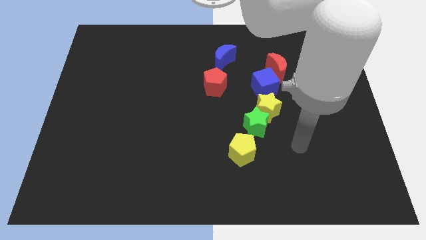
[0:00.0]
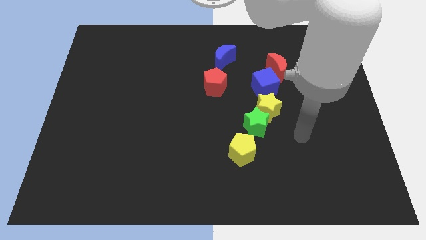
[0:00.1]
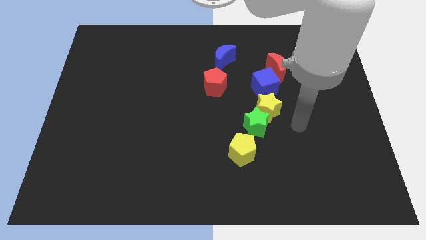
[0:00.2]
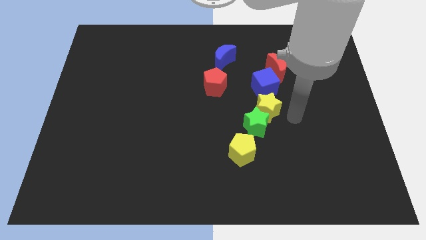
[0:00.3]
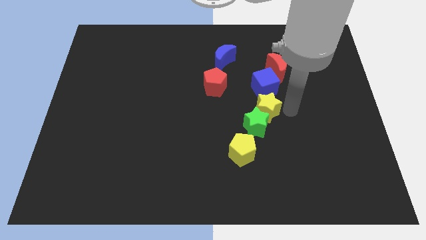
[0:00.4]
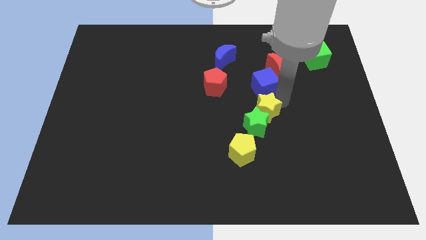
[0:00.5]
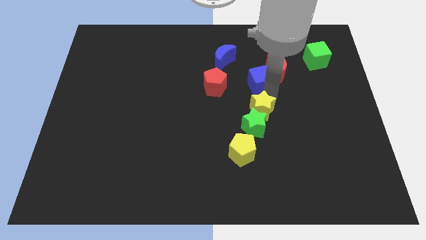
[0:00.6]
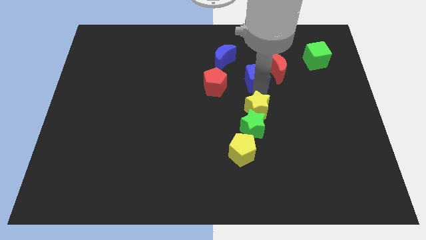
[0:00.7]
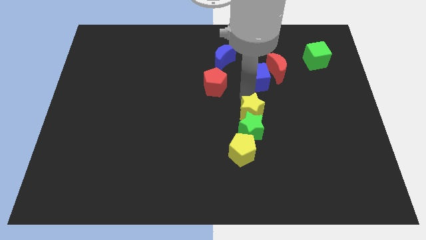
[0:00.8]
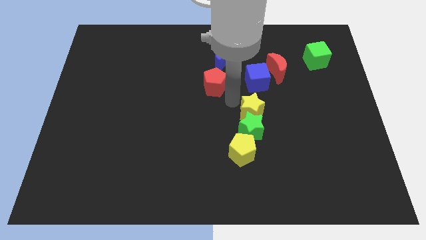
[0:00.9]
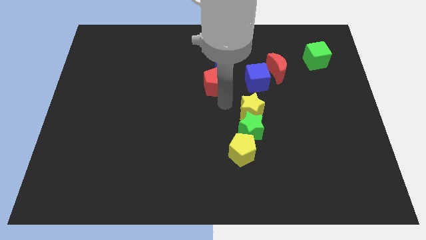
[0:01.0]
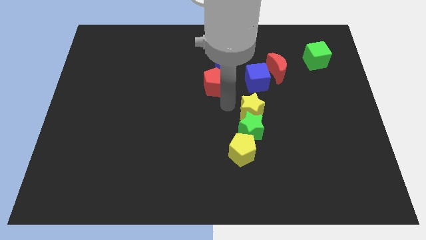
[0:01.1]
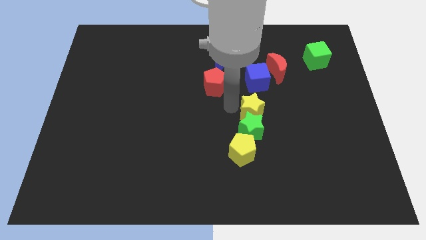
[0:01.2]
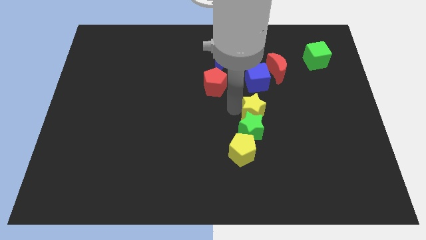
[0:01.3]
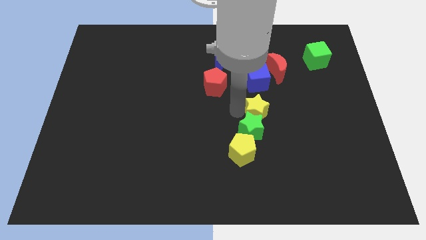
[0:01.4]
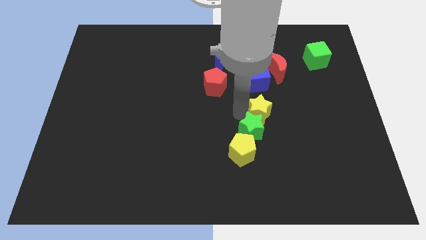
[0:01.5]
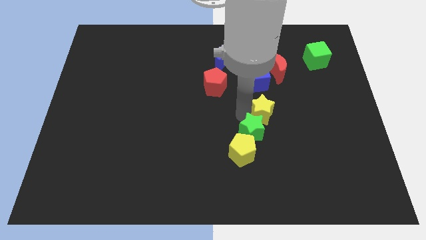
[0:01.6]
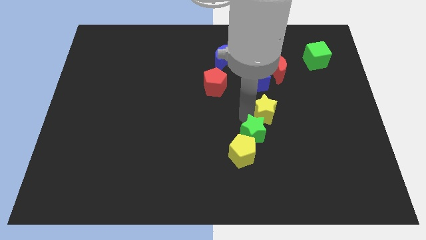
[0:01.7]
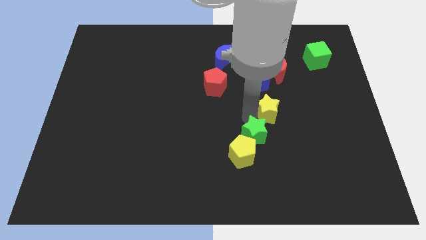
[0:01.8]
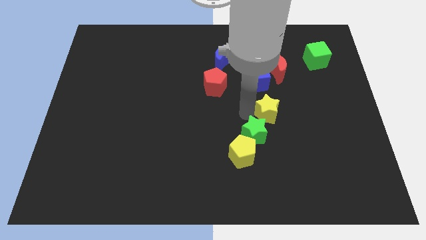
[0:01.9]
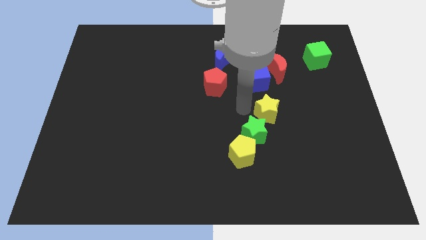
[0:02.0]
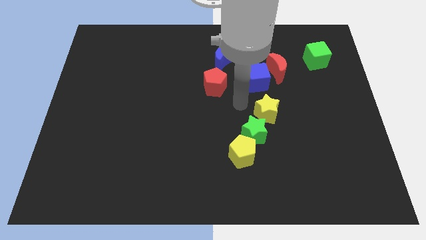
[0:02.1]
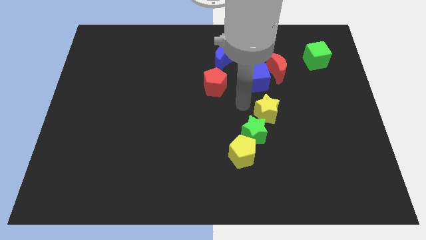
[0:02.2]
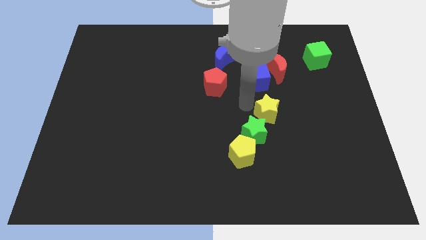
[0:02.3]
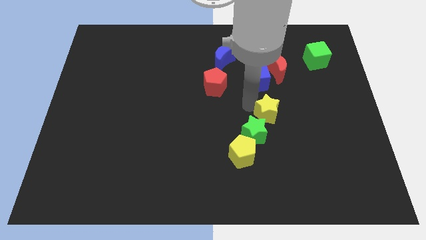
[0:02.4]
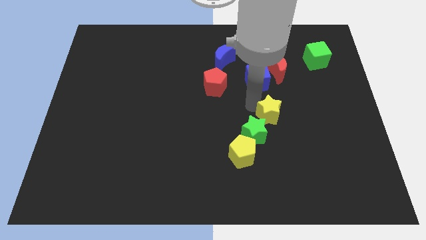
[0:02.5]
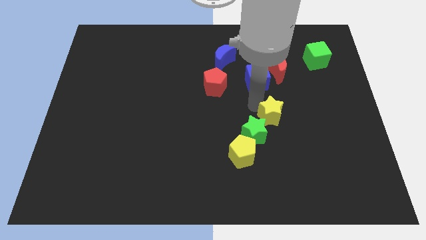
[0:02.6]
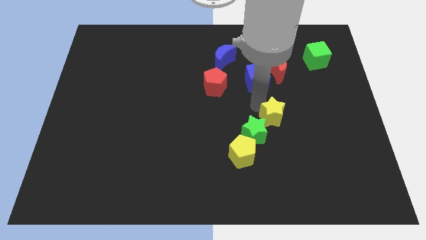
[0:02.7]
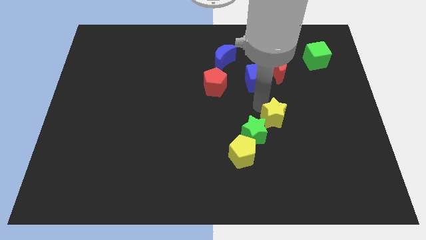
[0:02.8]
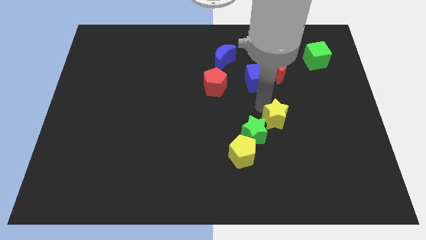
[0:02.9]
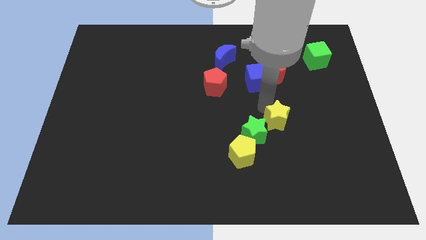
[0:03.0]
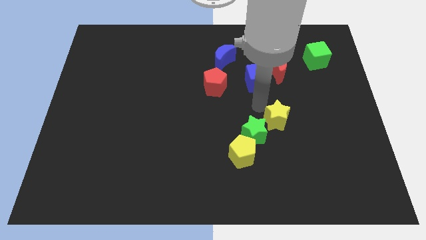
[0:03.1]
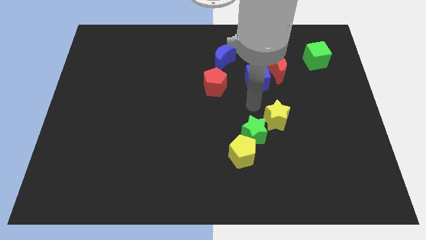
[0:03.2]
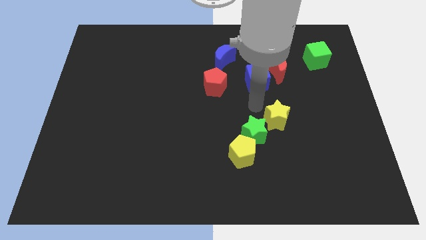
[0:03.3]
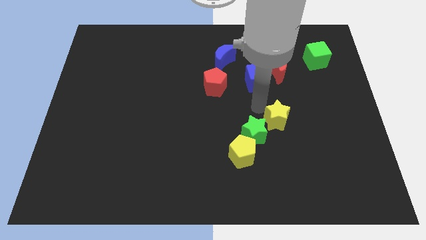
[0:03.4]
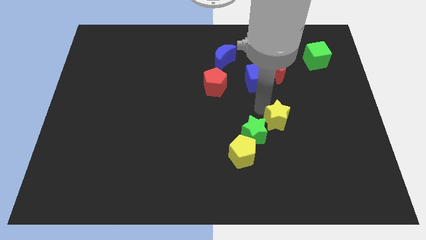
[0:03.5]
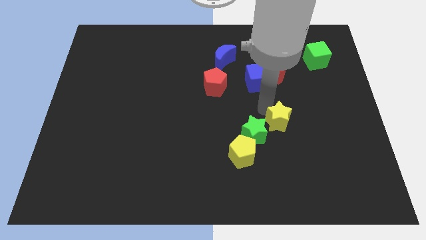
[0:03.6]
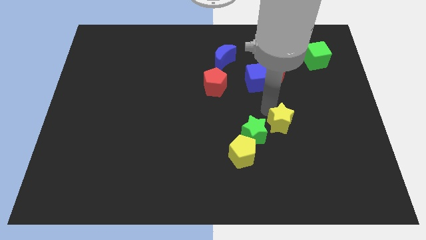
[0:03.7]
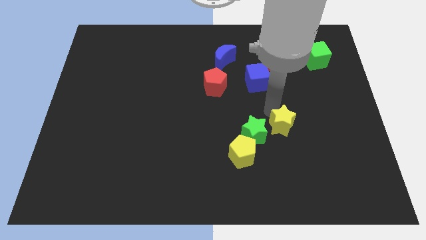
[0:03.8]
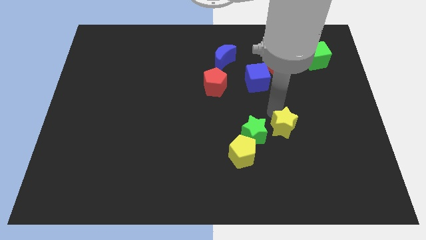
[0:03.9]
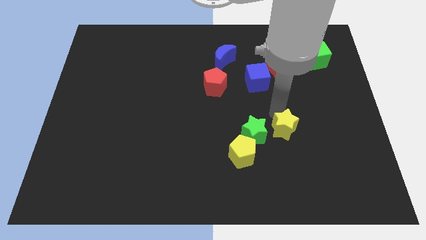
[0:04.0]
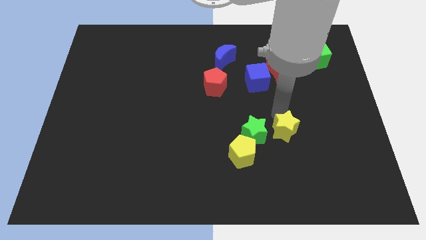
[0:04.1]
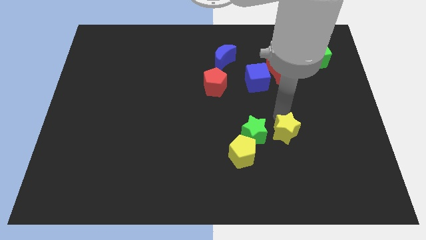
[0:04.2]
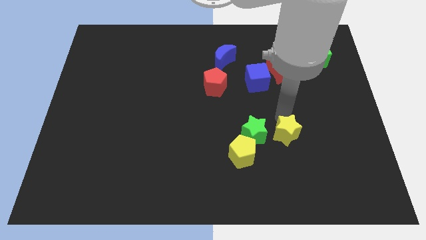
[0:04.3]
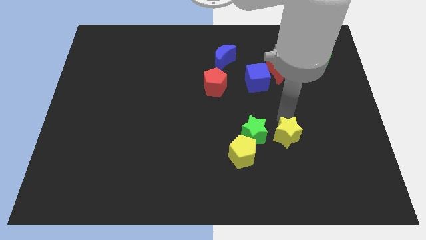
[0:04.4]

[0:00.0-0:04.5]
move the yellow star away from the green star and blue cube

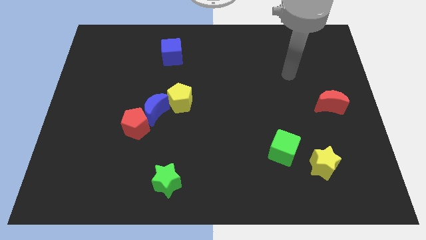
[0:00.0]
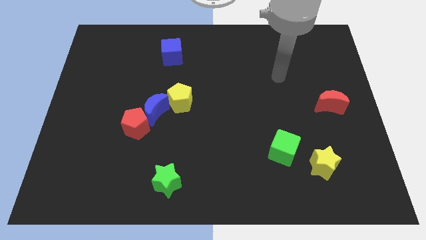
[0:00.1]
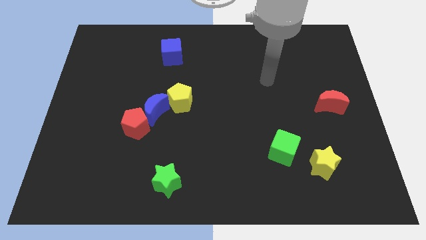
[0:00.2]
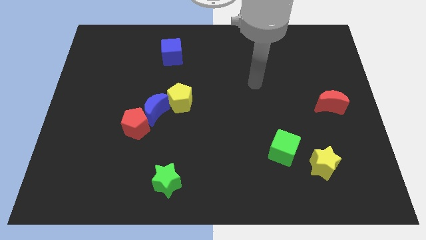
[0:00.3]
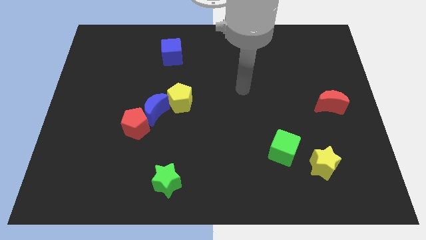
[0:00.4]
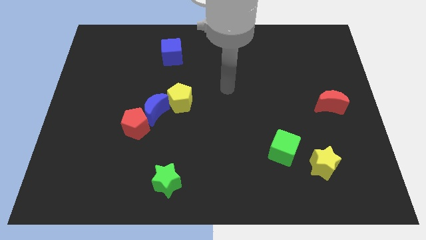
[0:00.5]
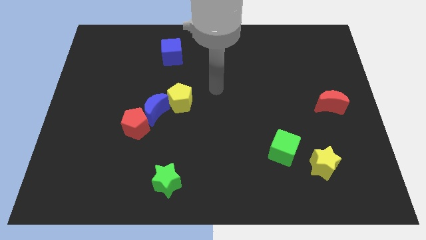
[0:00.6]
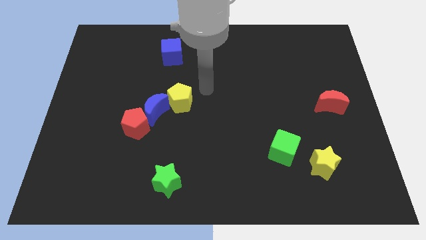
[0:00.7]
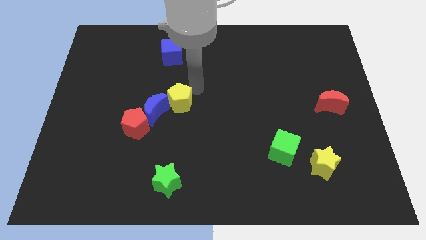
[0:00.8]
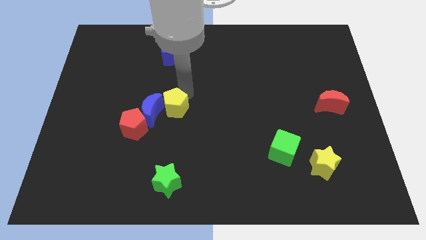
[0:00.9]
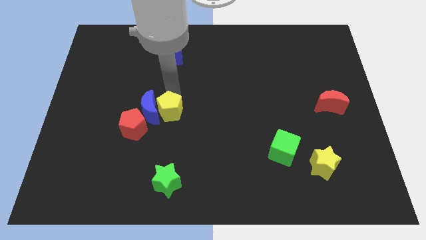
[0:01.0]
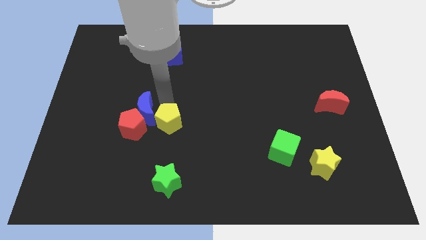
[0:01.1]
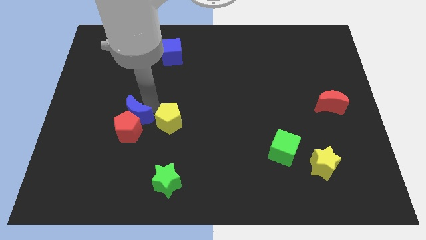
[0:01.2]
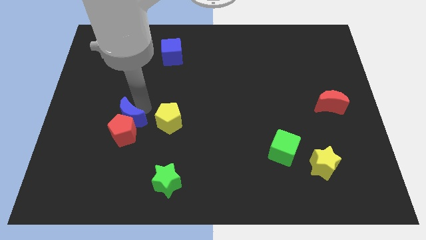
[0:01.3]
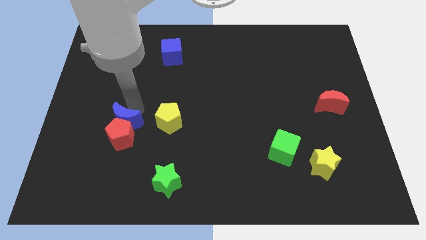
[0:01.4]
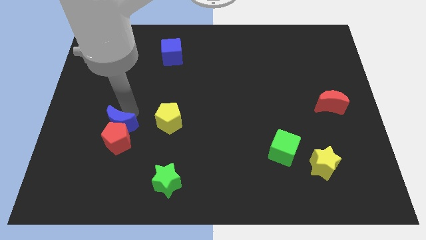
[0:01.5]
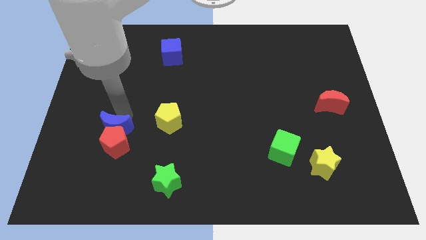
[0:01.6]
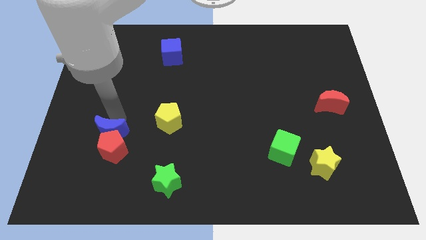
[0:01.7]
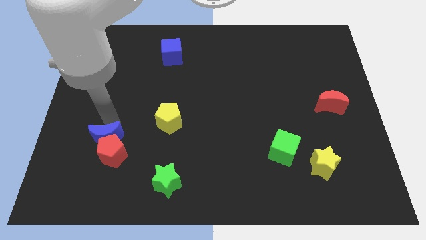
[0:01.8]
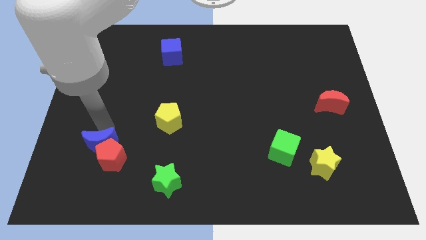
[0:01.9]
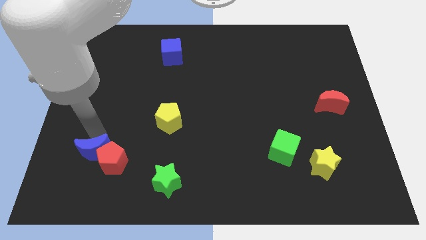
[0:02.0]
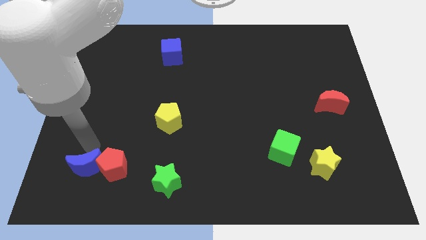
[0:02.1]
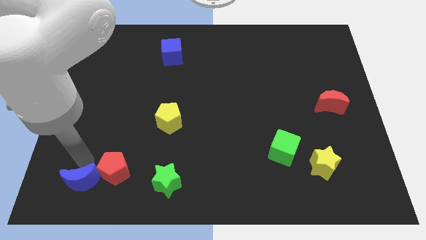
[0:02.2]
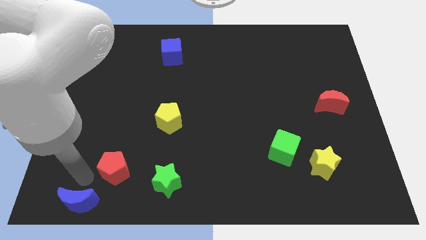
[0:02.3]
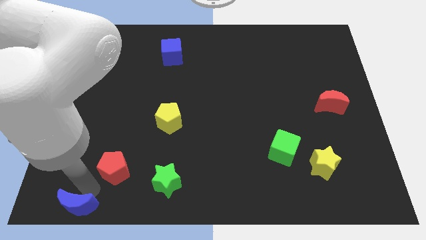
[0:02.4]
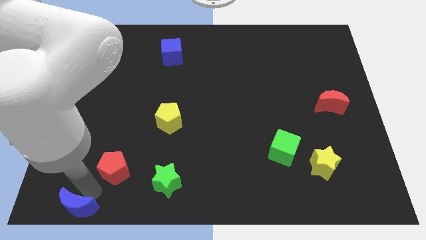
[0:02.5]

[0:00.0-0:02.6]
separate the red pentagon from the blue moon

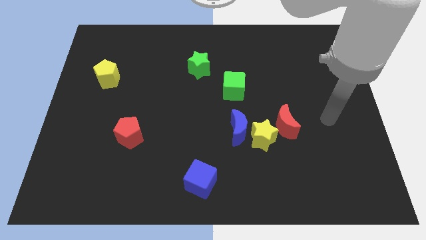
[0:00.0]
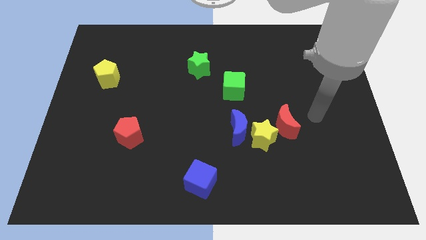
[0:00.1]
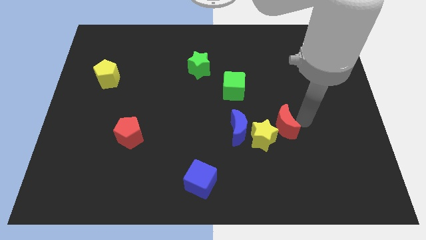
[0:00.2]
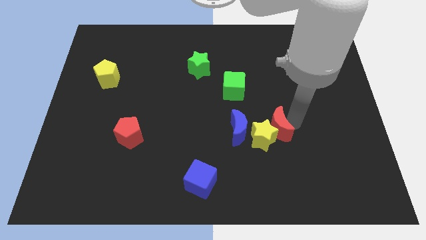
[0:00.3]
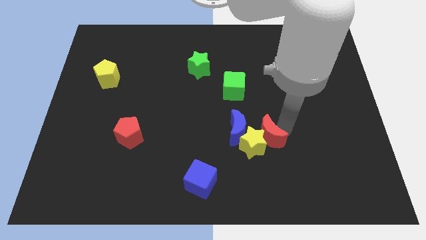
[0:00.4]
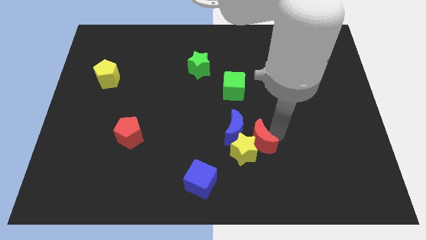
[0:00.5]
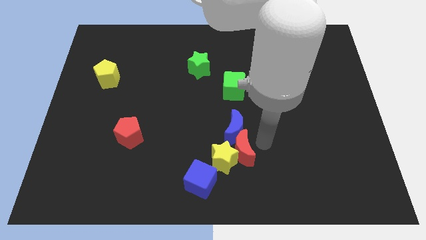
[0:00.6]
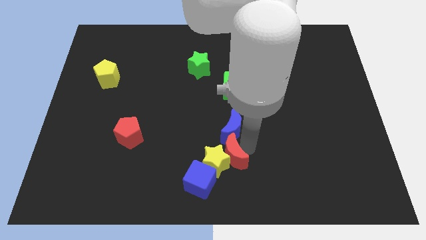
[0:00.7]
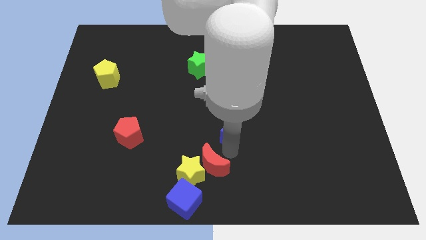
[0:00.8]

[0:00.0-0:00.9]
separate the blue moon from the yellow star

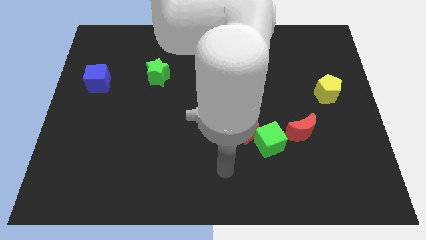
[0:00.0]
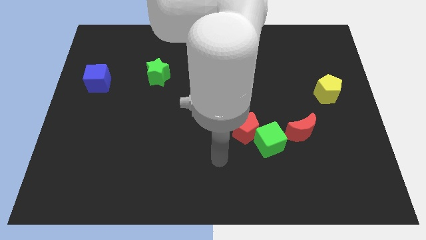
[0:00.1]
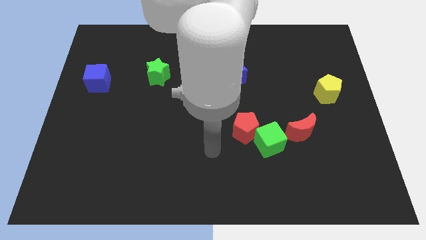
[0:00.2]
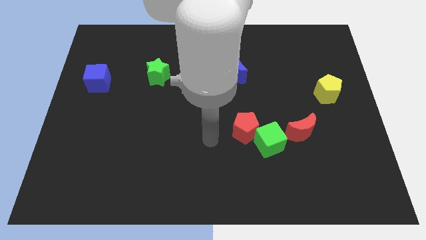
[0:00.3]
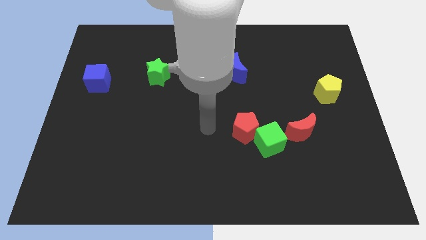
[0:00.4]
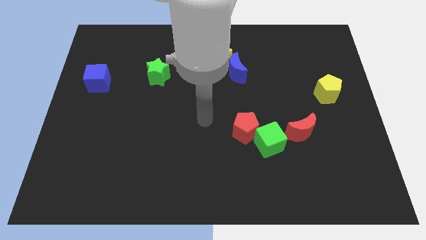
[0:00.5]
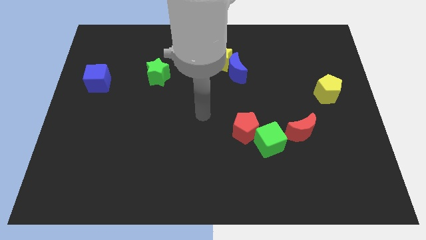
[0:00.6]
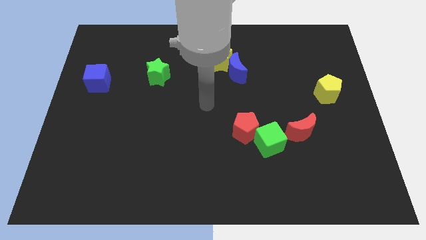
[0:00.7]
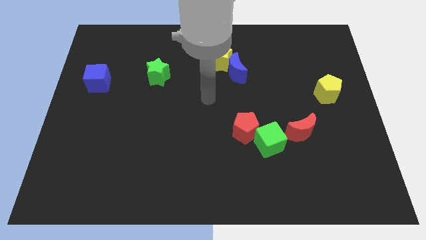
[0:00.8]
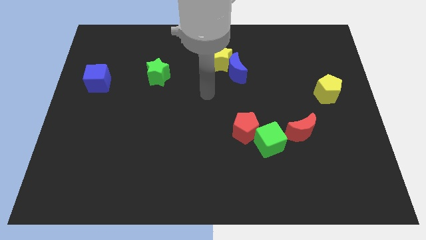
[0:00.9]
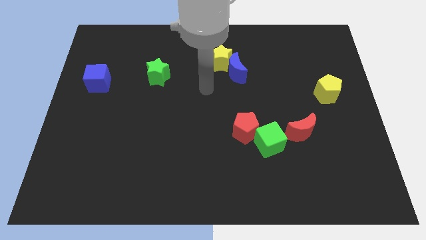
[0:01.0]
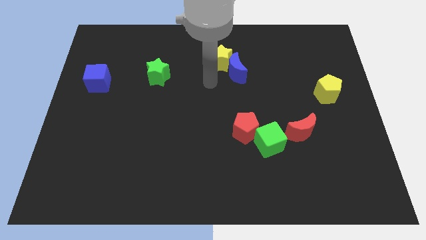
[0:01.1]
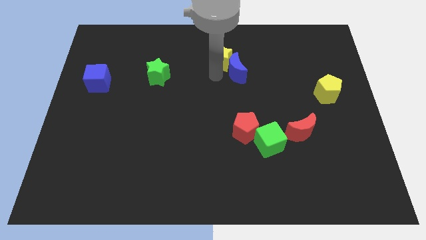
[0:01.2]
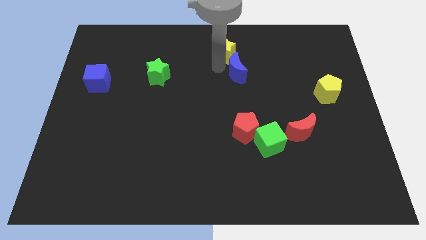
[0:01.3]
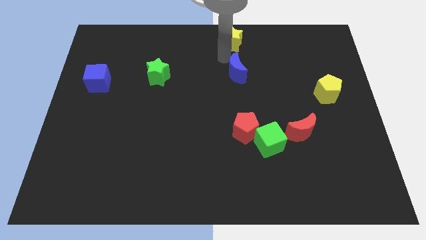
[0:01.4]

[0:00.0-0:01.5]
move the blue moon away from the yellow star
